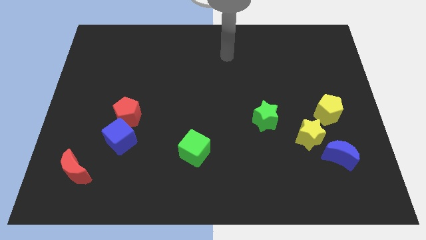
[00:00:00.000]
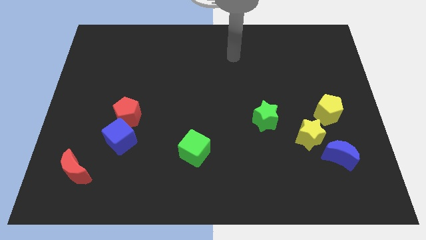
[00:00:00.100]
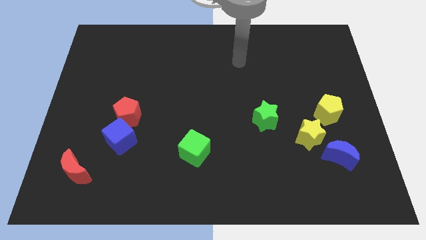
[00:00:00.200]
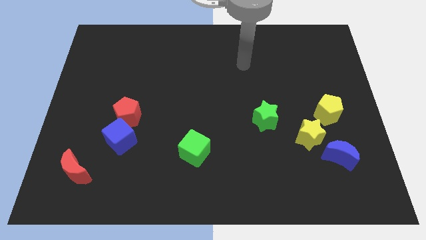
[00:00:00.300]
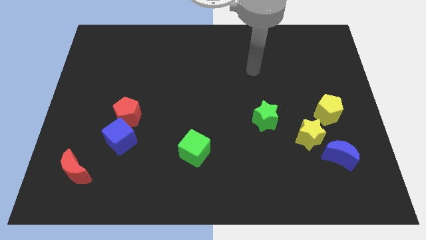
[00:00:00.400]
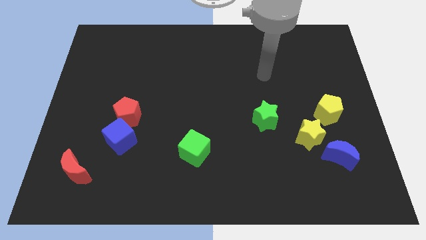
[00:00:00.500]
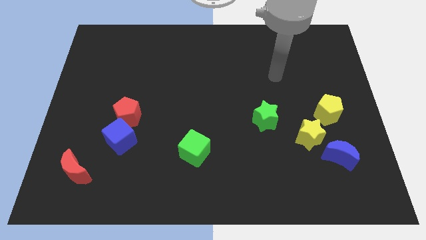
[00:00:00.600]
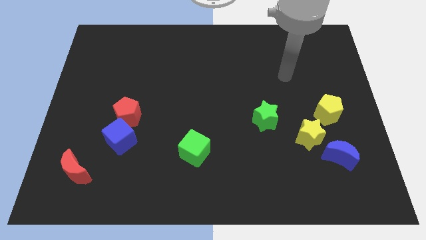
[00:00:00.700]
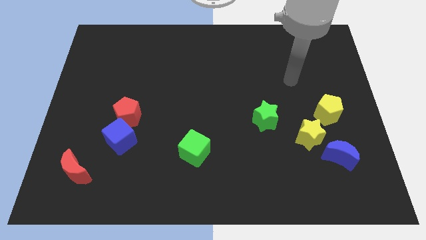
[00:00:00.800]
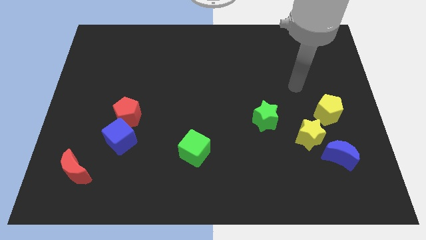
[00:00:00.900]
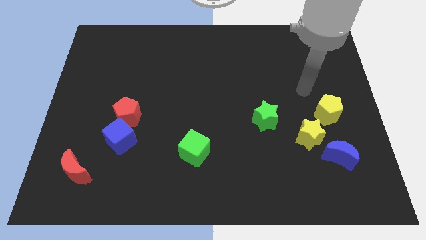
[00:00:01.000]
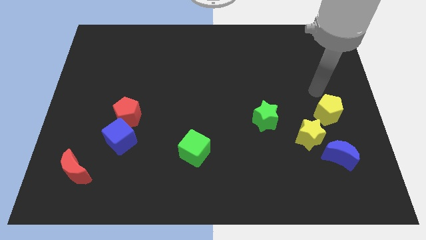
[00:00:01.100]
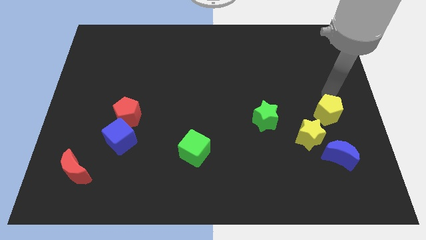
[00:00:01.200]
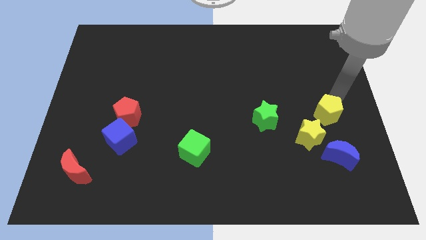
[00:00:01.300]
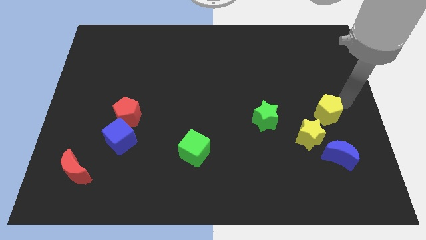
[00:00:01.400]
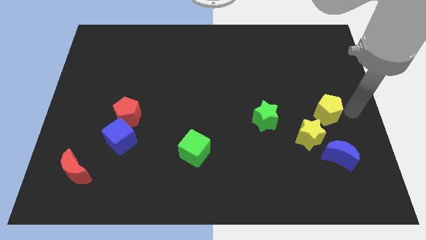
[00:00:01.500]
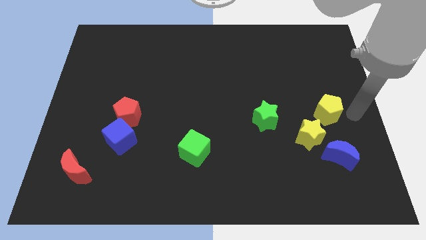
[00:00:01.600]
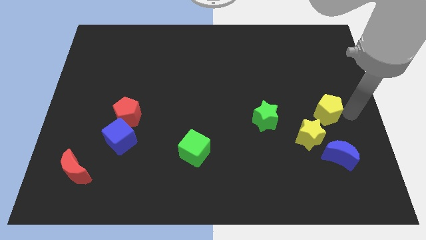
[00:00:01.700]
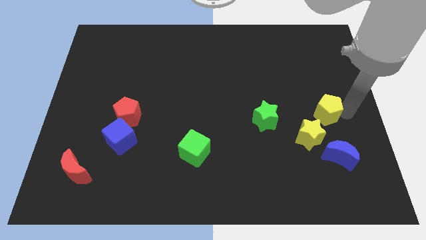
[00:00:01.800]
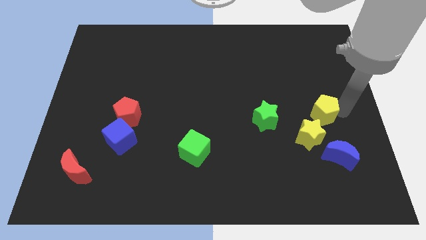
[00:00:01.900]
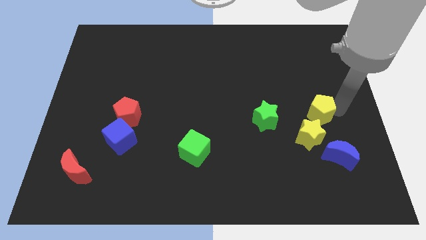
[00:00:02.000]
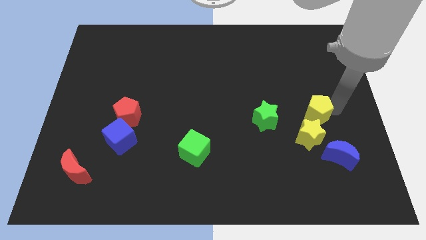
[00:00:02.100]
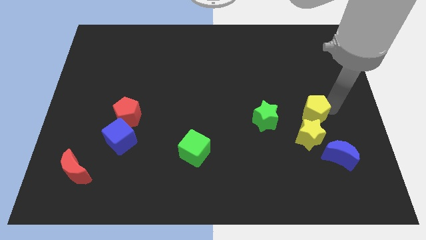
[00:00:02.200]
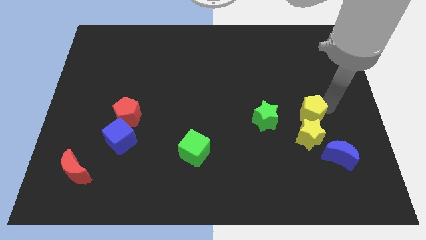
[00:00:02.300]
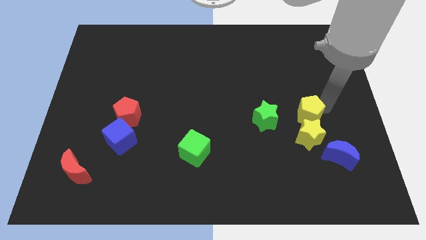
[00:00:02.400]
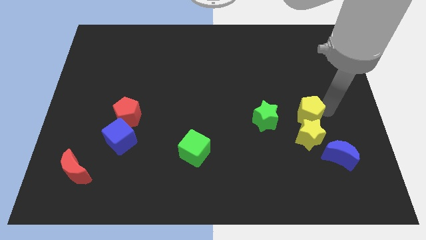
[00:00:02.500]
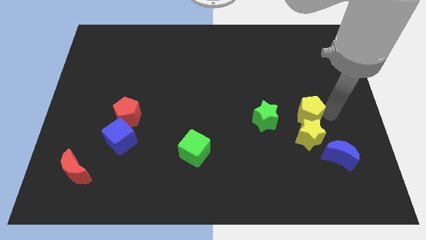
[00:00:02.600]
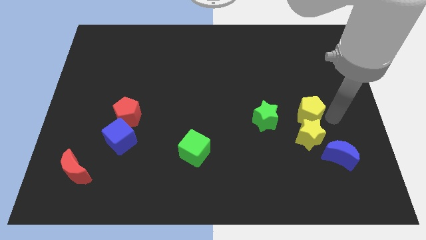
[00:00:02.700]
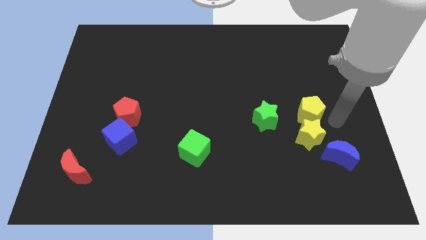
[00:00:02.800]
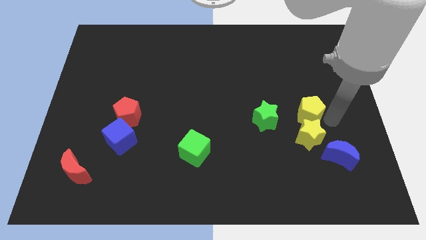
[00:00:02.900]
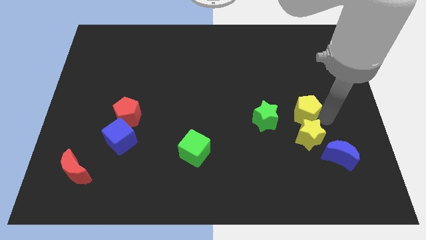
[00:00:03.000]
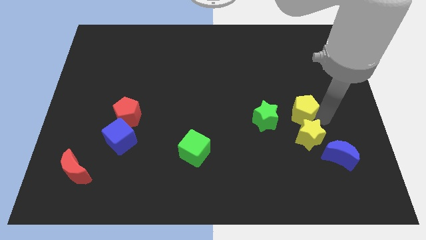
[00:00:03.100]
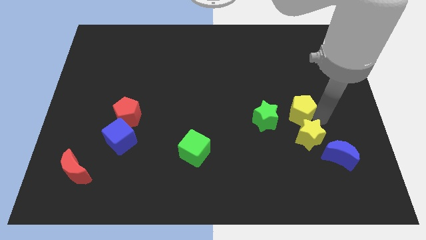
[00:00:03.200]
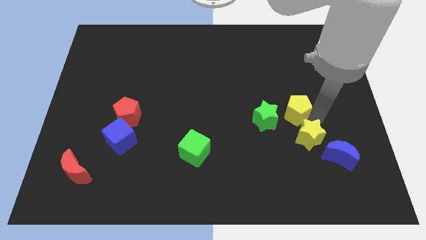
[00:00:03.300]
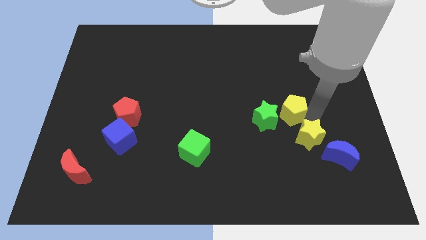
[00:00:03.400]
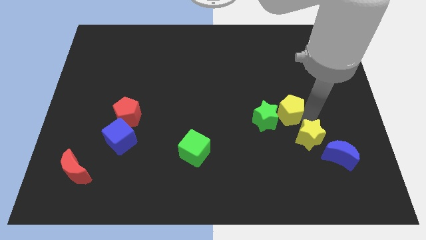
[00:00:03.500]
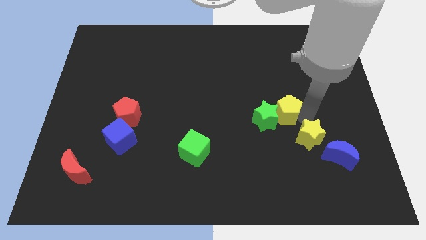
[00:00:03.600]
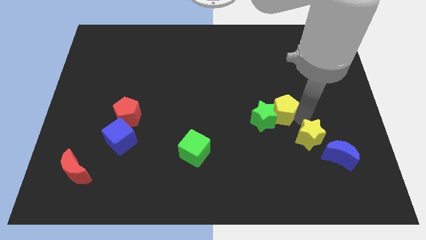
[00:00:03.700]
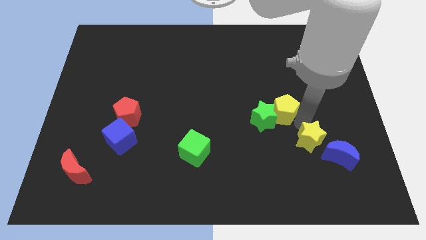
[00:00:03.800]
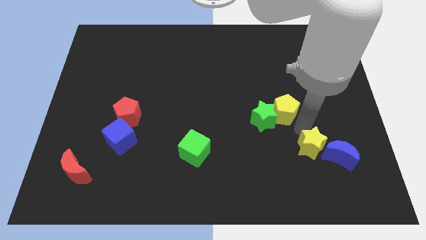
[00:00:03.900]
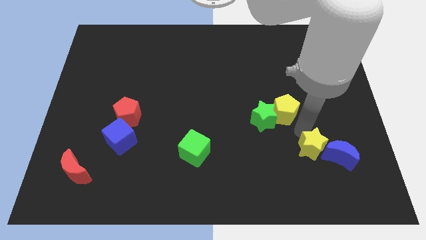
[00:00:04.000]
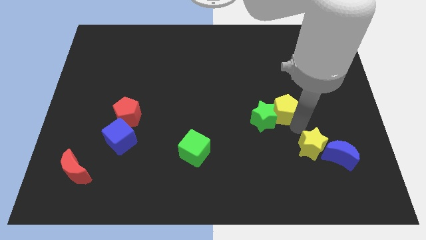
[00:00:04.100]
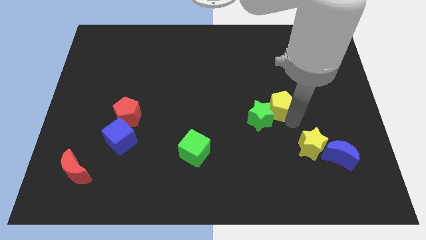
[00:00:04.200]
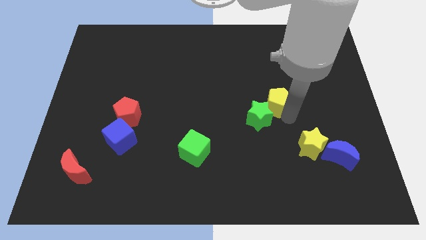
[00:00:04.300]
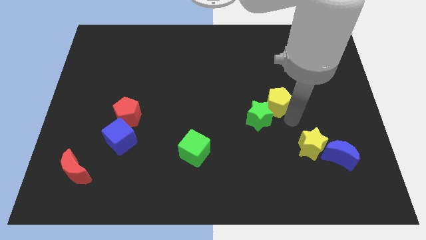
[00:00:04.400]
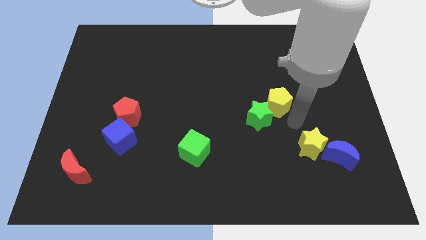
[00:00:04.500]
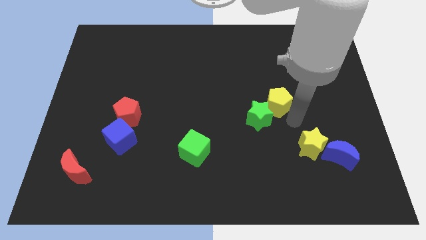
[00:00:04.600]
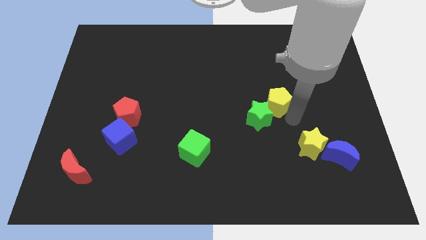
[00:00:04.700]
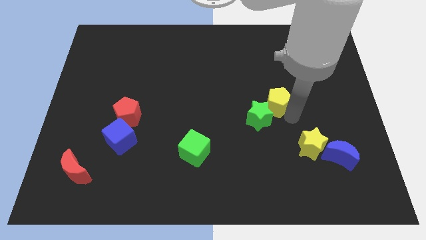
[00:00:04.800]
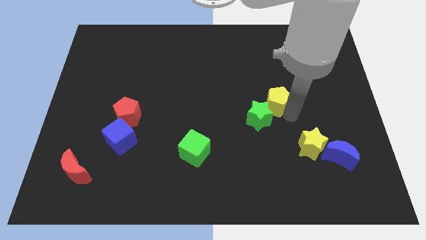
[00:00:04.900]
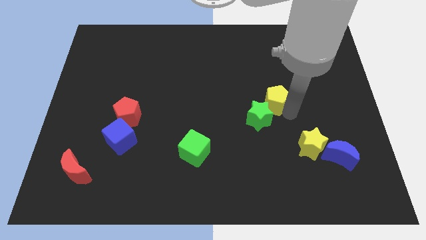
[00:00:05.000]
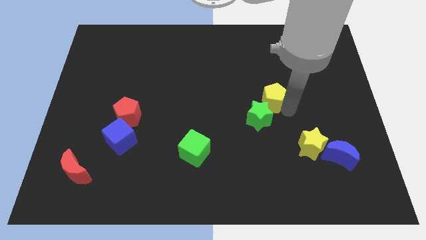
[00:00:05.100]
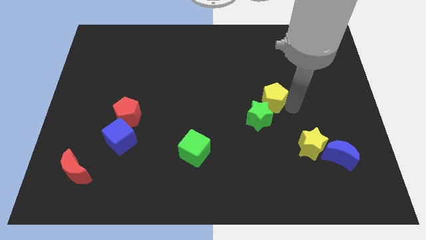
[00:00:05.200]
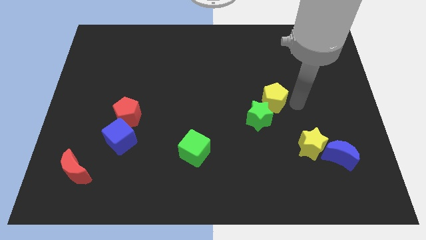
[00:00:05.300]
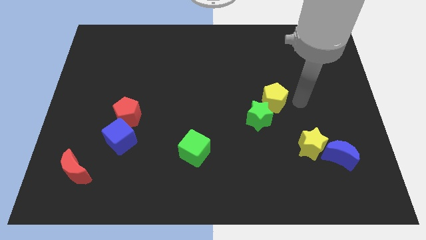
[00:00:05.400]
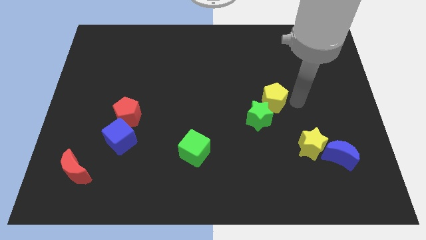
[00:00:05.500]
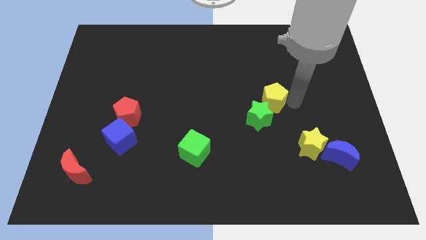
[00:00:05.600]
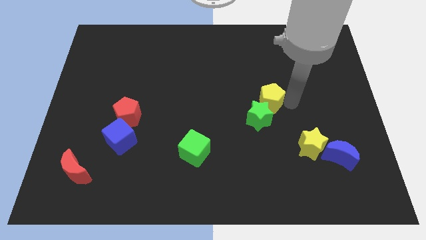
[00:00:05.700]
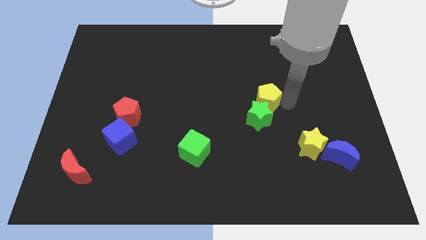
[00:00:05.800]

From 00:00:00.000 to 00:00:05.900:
move the yellow pentagon to the center of the board
